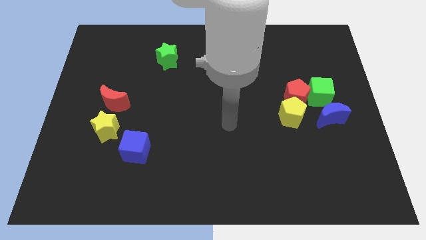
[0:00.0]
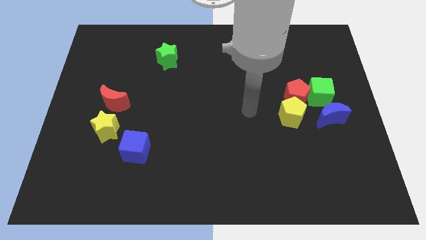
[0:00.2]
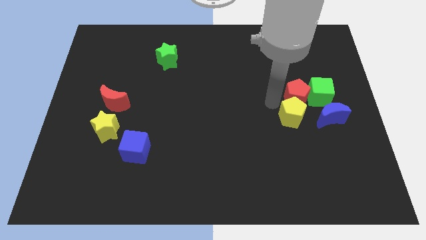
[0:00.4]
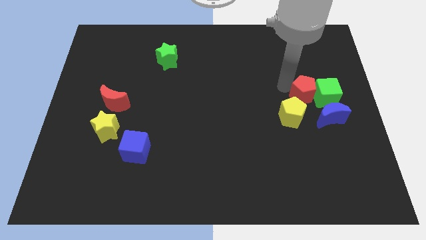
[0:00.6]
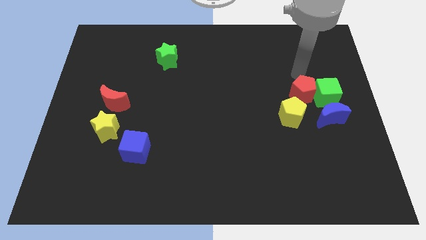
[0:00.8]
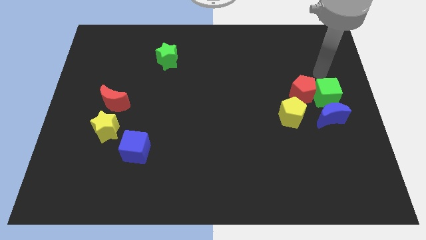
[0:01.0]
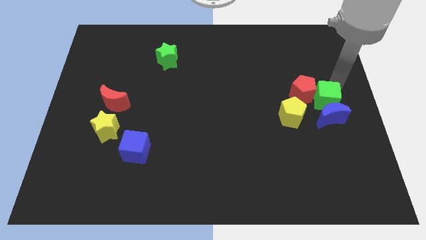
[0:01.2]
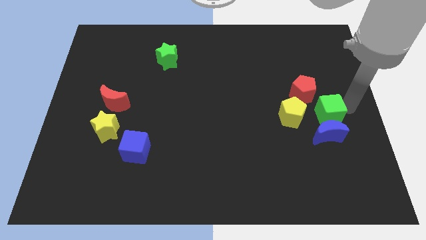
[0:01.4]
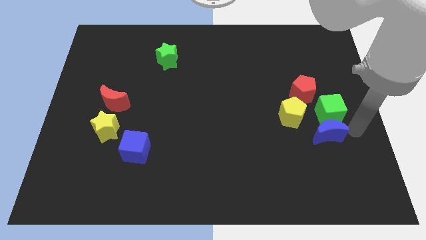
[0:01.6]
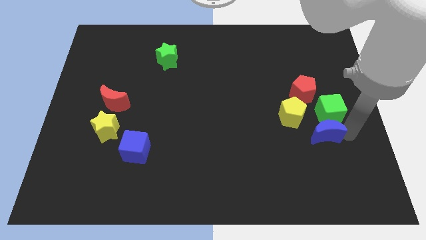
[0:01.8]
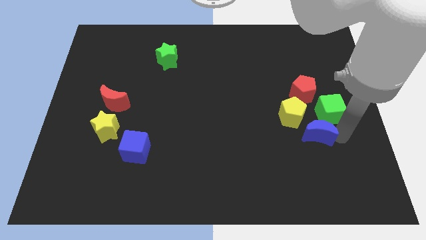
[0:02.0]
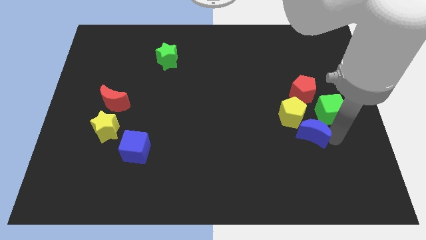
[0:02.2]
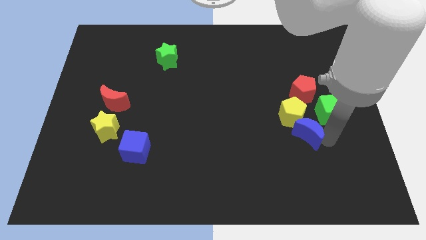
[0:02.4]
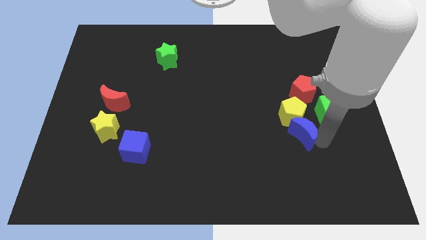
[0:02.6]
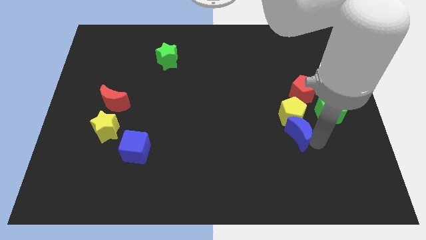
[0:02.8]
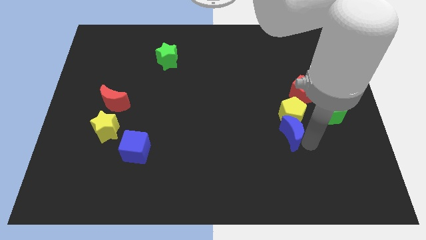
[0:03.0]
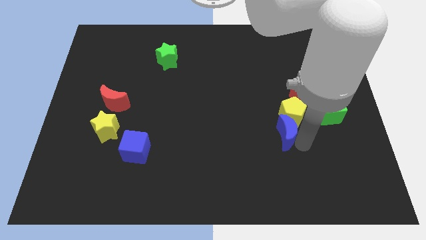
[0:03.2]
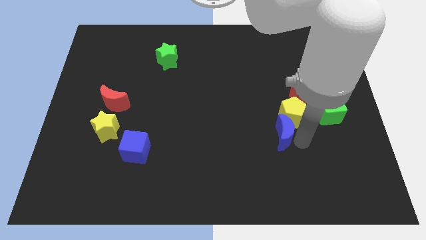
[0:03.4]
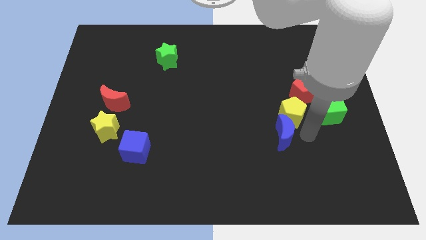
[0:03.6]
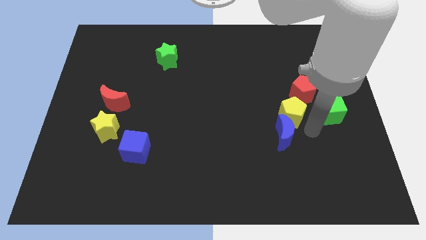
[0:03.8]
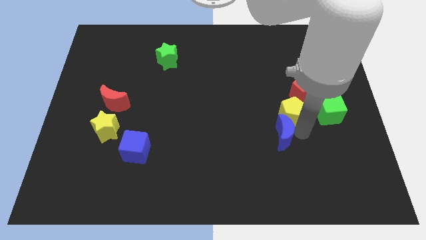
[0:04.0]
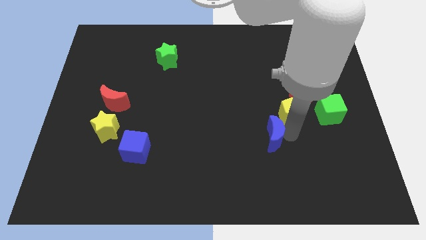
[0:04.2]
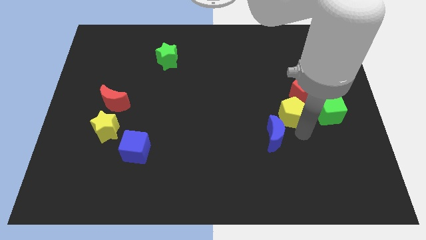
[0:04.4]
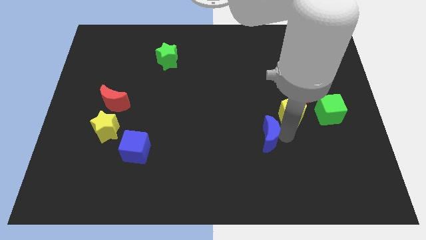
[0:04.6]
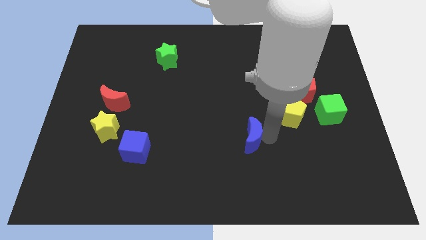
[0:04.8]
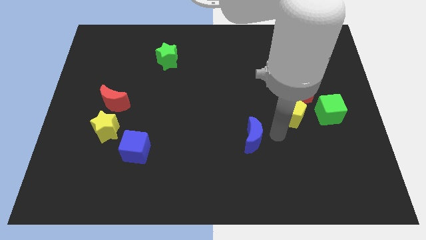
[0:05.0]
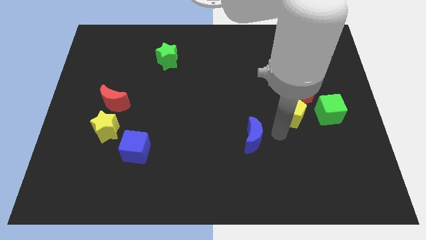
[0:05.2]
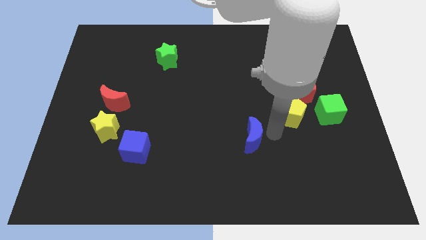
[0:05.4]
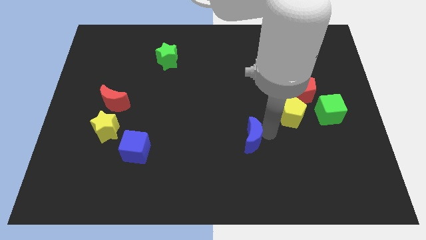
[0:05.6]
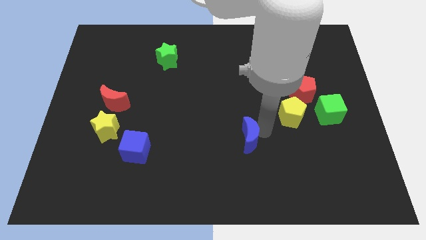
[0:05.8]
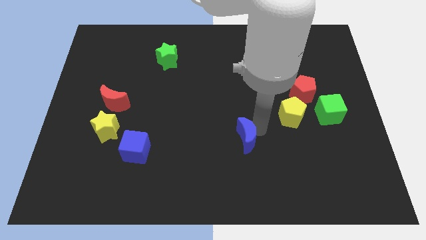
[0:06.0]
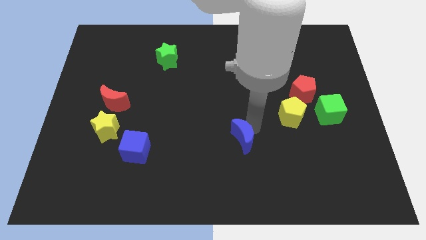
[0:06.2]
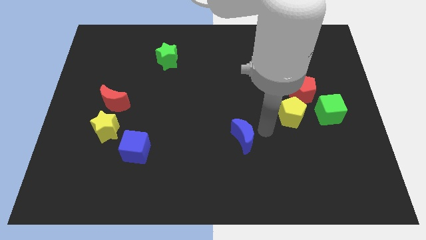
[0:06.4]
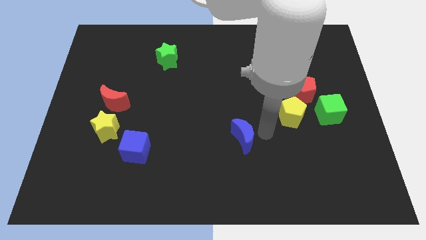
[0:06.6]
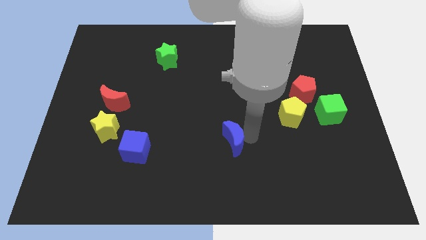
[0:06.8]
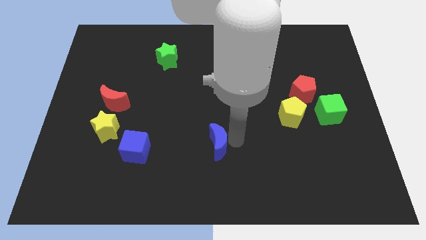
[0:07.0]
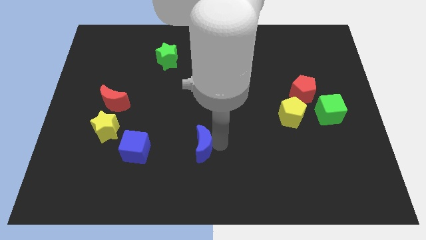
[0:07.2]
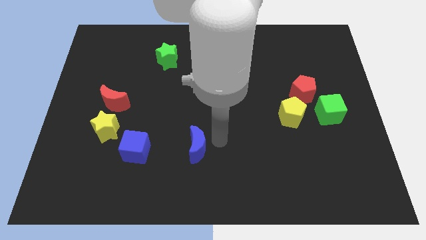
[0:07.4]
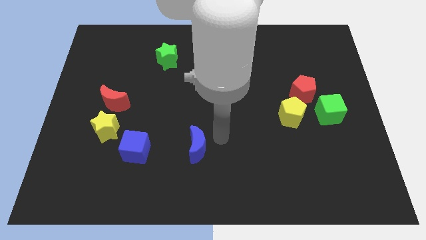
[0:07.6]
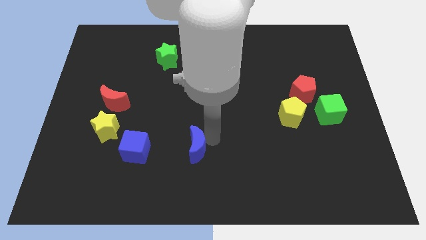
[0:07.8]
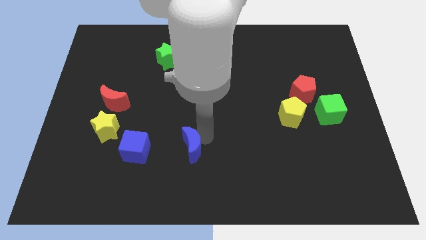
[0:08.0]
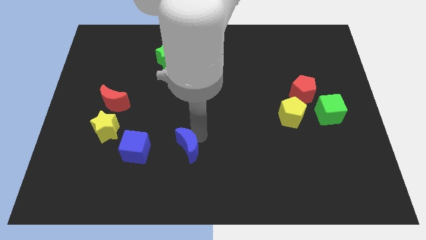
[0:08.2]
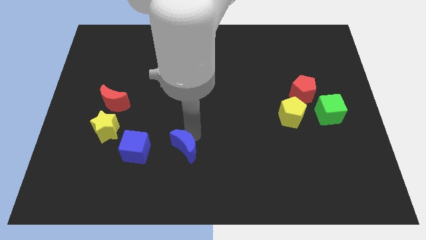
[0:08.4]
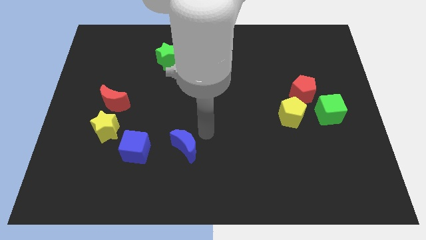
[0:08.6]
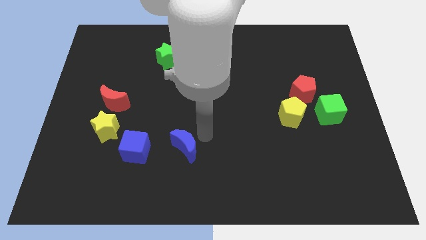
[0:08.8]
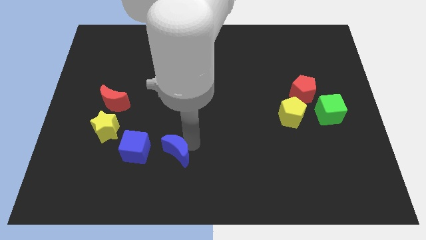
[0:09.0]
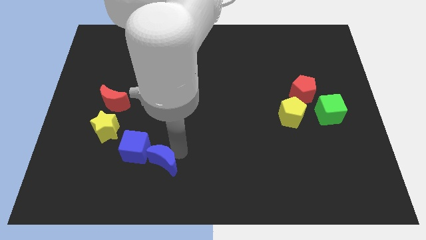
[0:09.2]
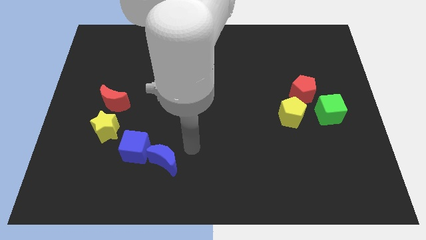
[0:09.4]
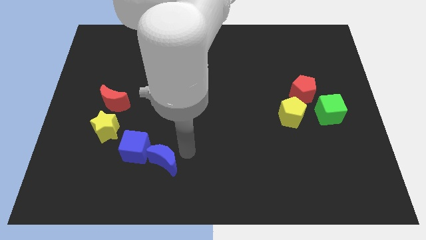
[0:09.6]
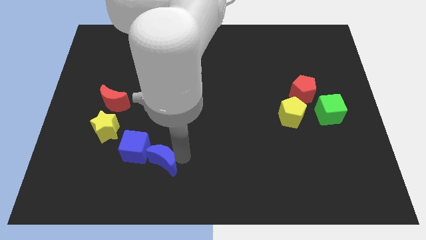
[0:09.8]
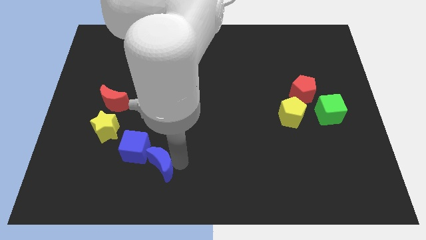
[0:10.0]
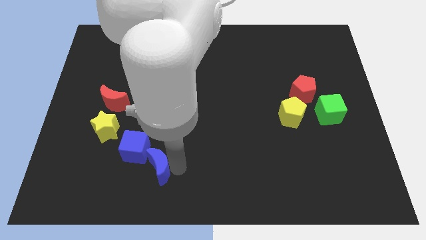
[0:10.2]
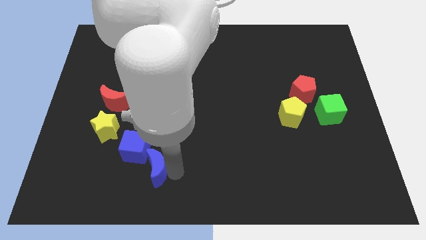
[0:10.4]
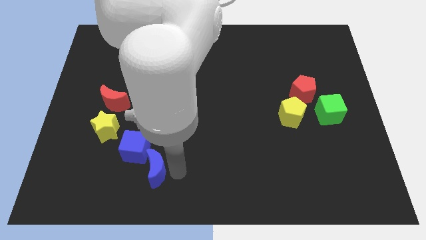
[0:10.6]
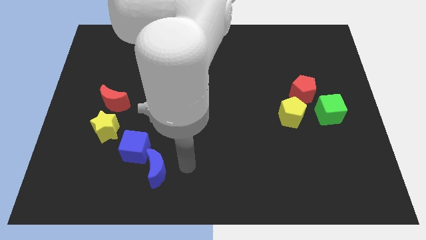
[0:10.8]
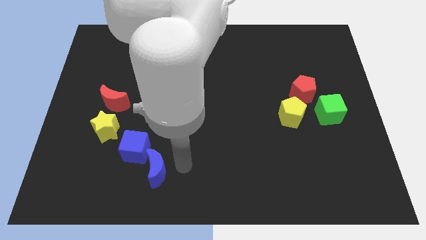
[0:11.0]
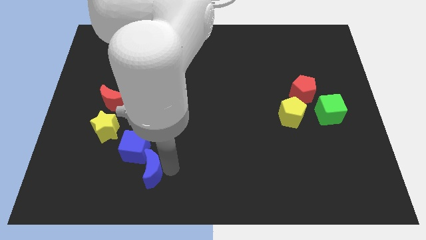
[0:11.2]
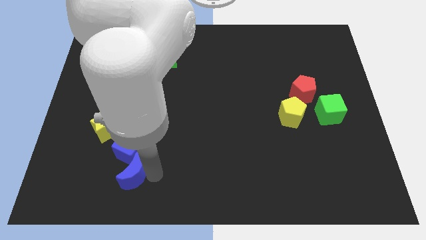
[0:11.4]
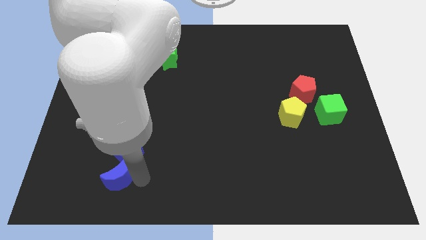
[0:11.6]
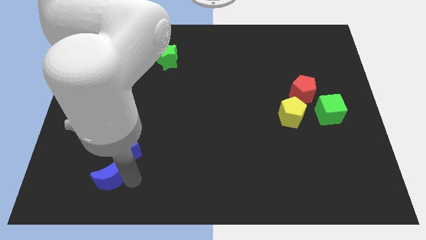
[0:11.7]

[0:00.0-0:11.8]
put the blue moon to the bottom side of the yellow star

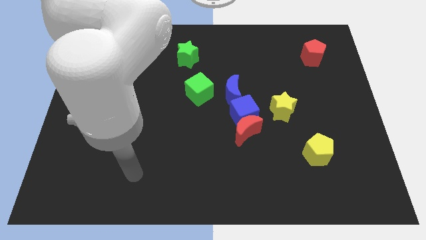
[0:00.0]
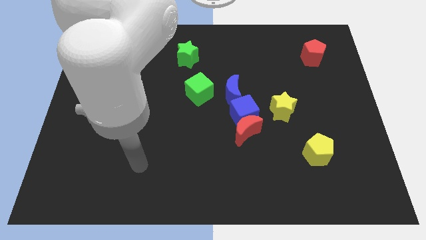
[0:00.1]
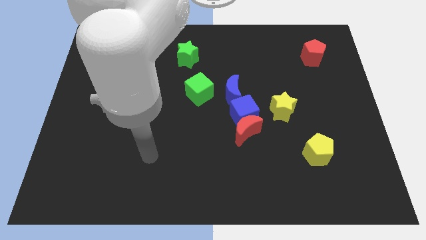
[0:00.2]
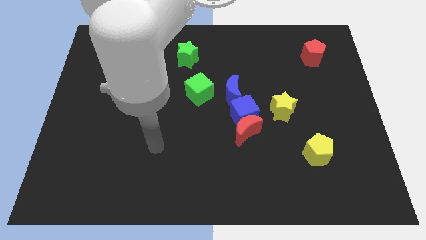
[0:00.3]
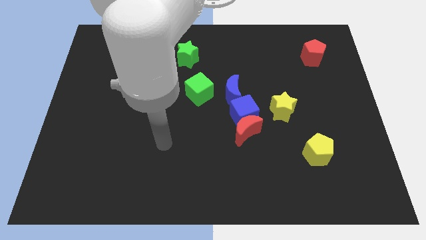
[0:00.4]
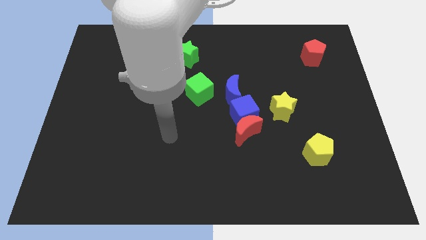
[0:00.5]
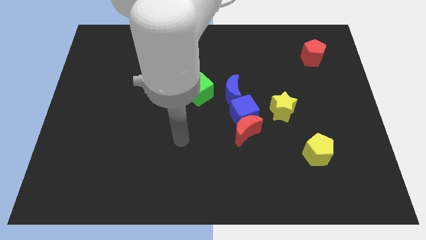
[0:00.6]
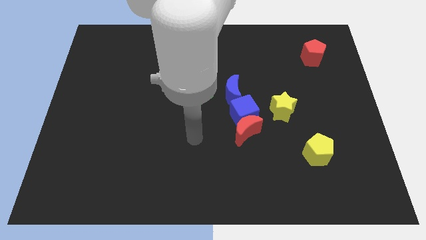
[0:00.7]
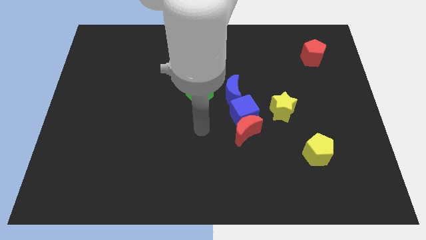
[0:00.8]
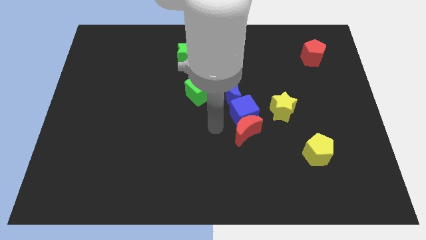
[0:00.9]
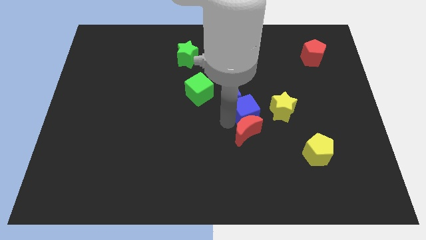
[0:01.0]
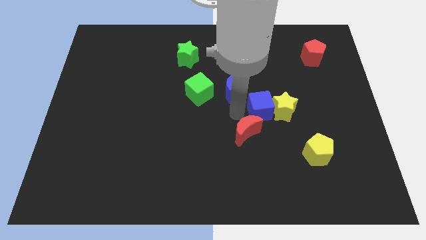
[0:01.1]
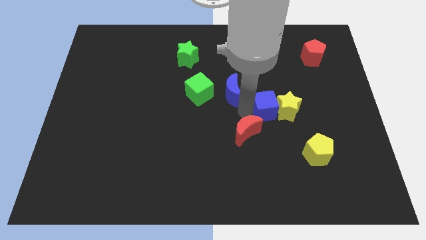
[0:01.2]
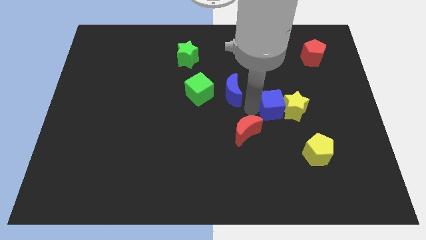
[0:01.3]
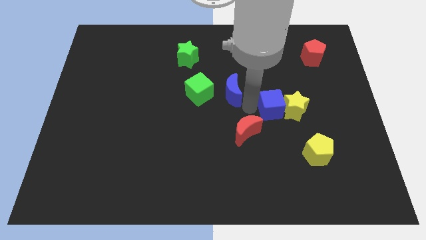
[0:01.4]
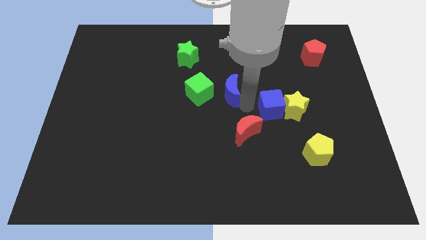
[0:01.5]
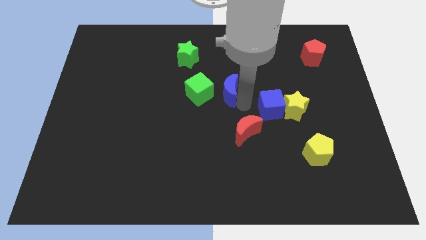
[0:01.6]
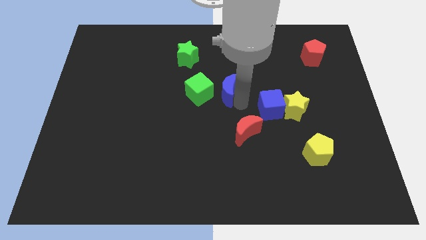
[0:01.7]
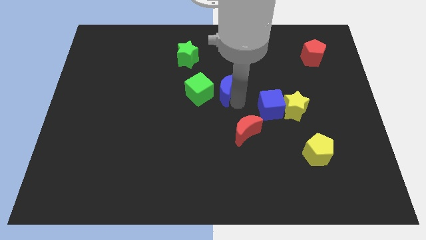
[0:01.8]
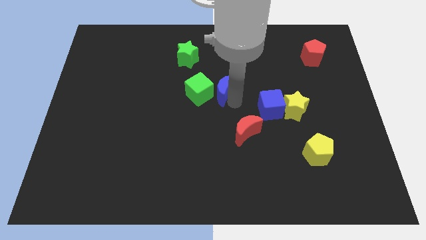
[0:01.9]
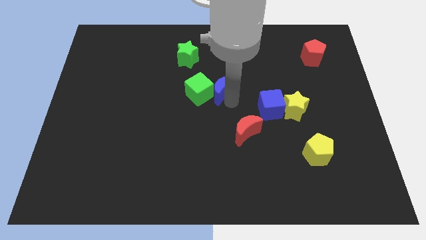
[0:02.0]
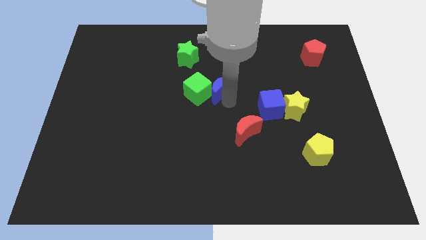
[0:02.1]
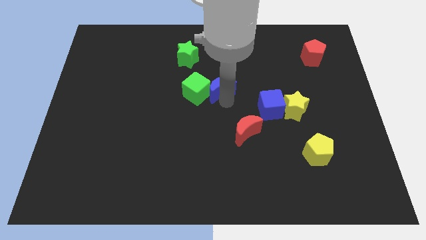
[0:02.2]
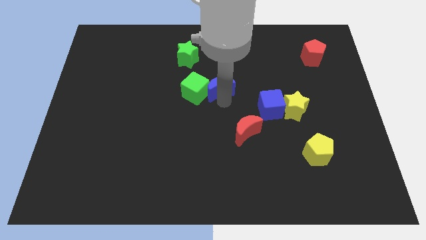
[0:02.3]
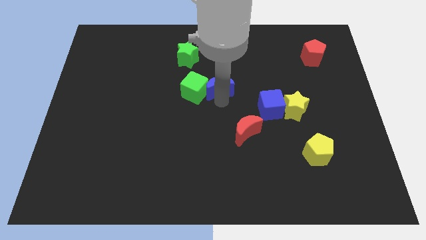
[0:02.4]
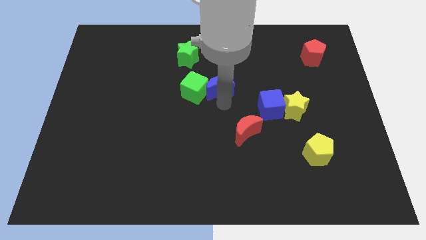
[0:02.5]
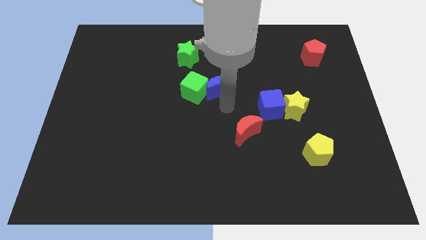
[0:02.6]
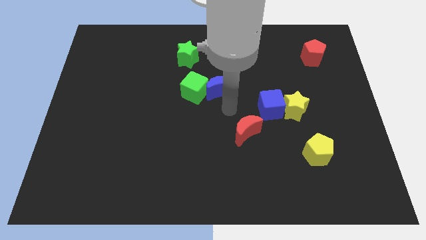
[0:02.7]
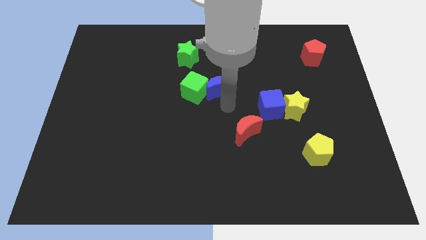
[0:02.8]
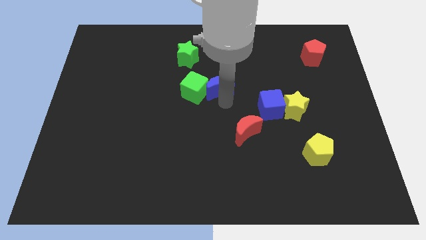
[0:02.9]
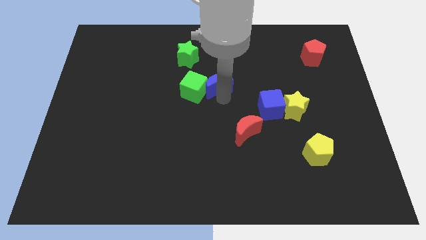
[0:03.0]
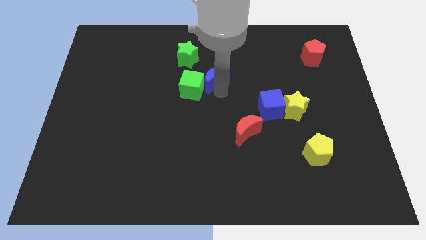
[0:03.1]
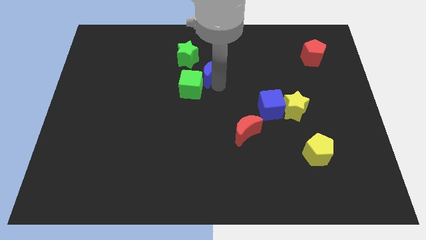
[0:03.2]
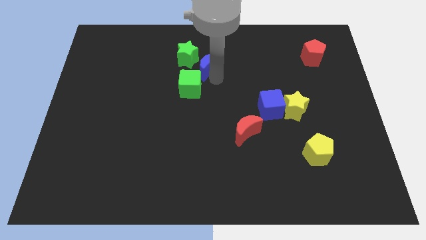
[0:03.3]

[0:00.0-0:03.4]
move the blue moon to the top side of the green cube
